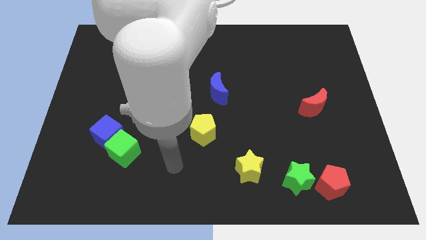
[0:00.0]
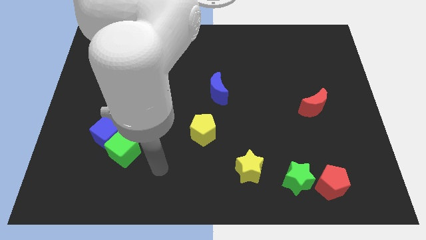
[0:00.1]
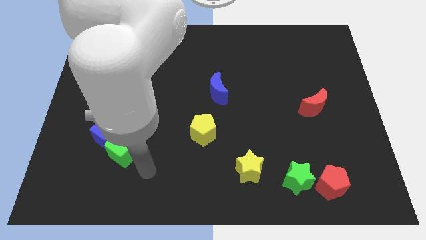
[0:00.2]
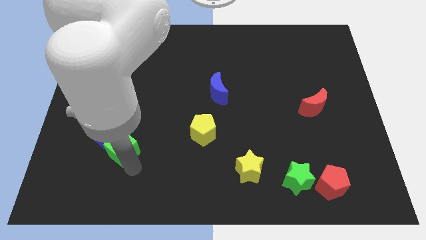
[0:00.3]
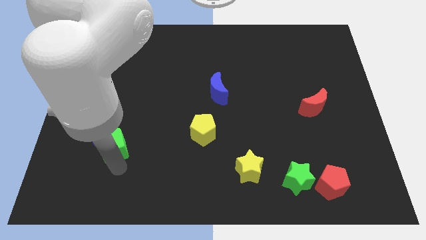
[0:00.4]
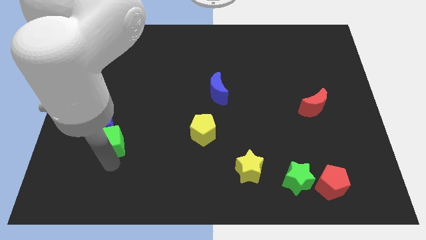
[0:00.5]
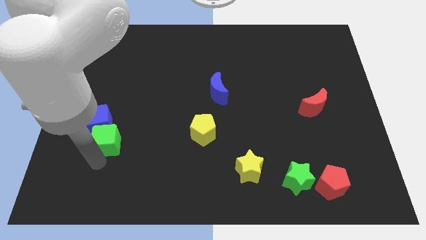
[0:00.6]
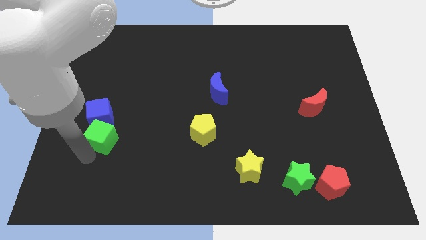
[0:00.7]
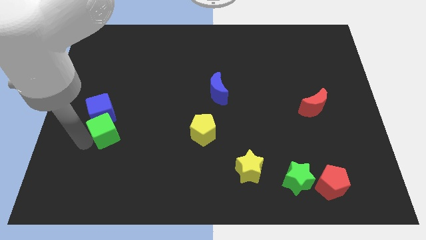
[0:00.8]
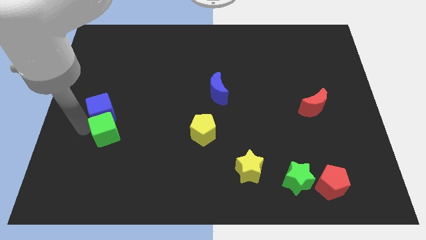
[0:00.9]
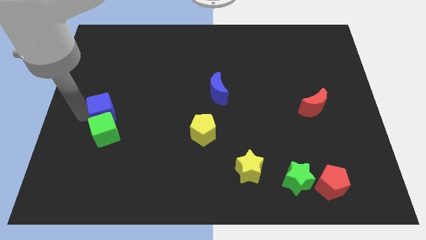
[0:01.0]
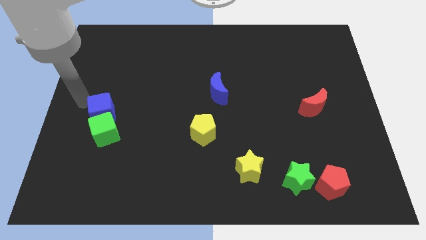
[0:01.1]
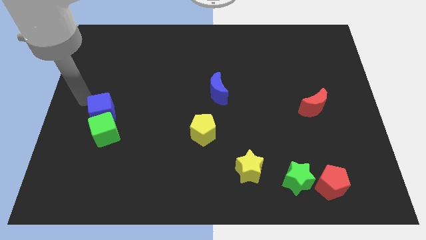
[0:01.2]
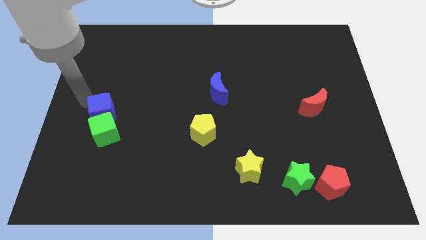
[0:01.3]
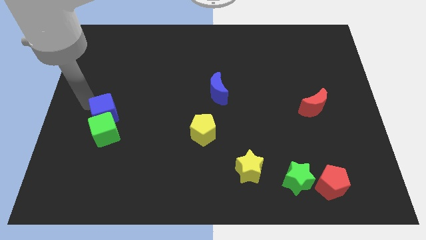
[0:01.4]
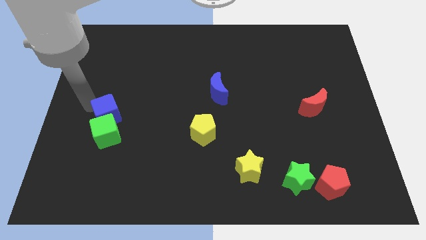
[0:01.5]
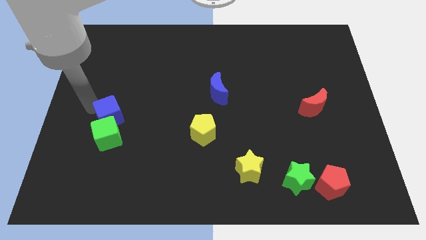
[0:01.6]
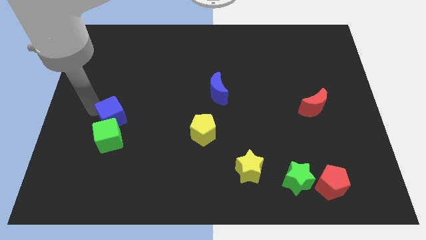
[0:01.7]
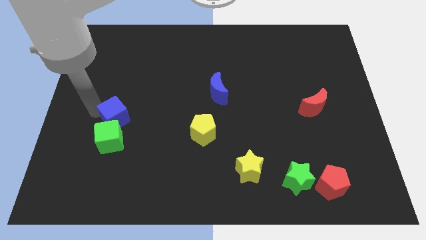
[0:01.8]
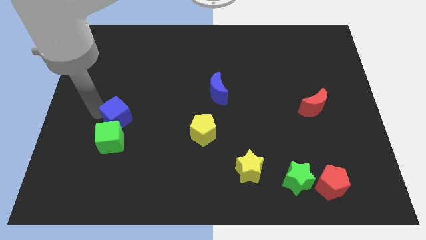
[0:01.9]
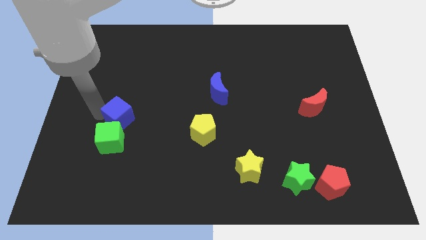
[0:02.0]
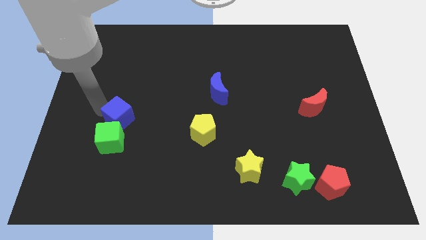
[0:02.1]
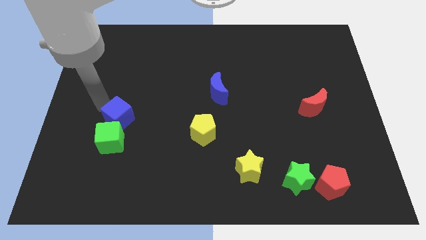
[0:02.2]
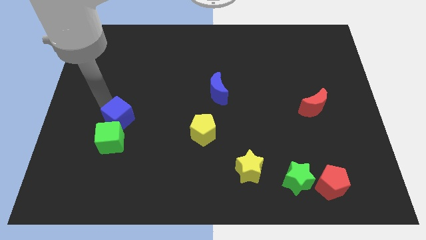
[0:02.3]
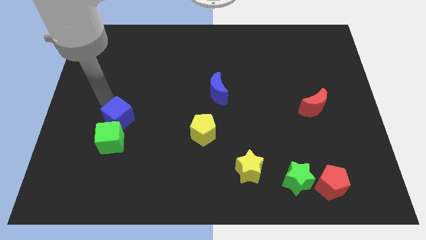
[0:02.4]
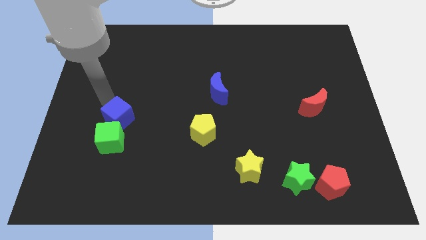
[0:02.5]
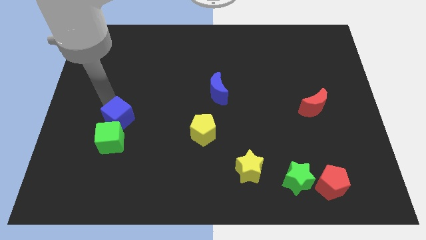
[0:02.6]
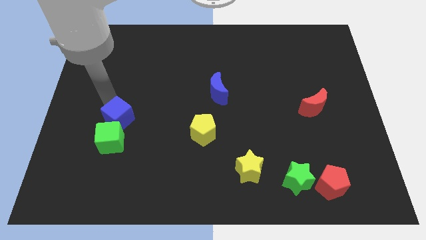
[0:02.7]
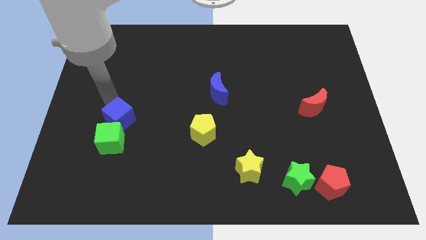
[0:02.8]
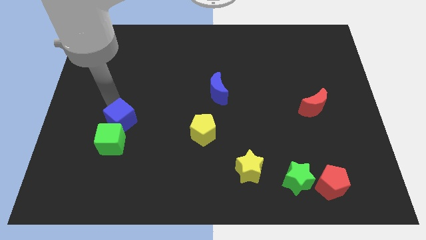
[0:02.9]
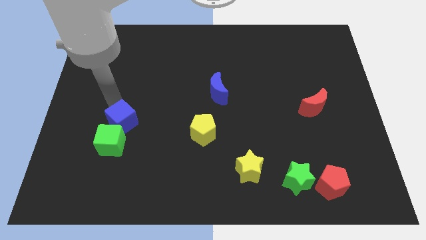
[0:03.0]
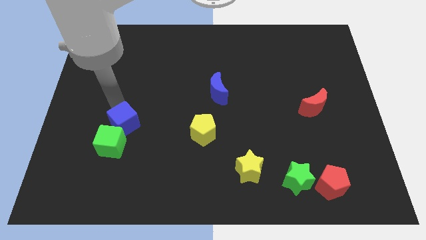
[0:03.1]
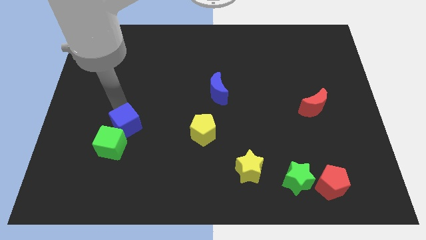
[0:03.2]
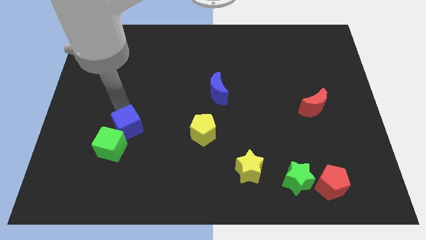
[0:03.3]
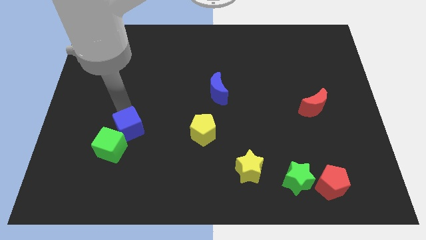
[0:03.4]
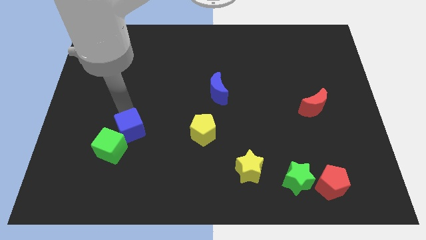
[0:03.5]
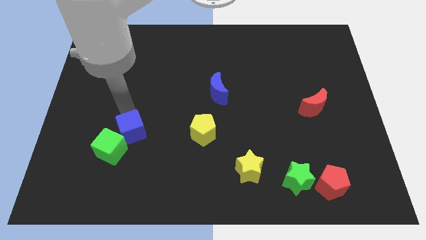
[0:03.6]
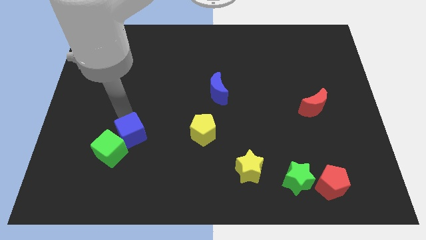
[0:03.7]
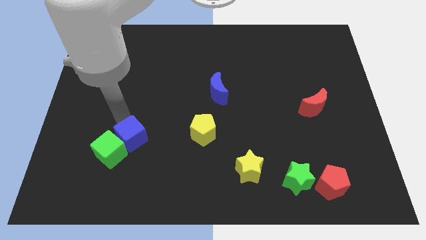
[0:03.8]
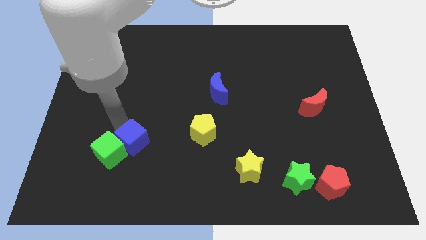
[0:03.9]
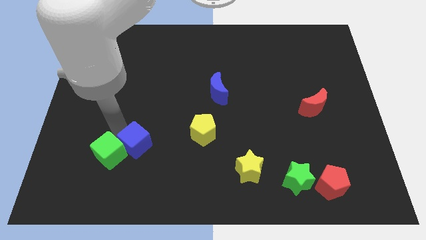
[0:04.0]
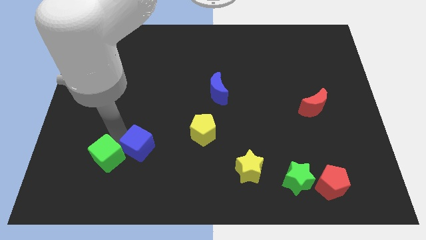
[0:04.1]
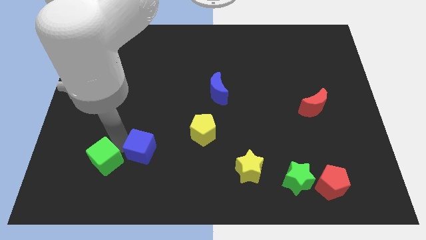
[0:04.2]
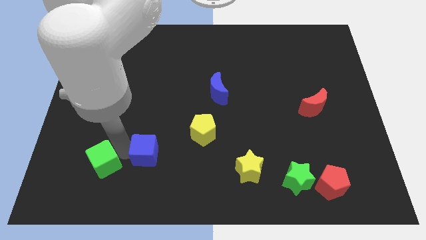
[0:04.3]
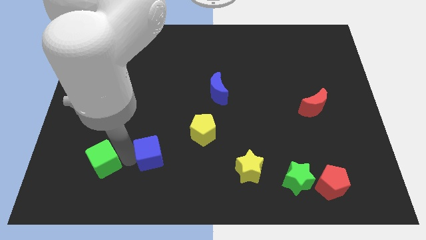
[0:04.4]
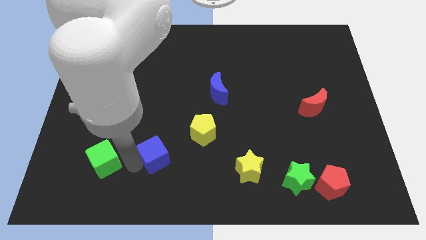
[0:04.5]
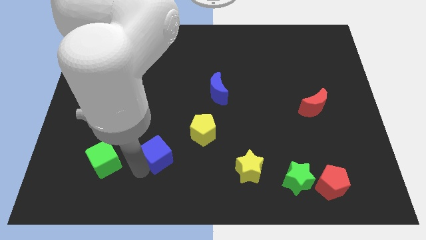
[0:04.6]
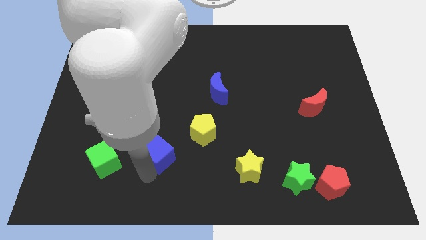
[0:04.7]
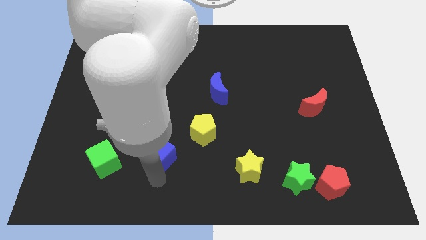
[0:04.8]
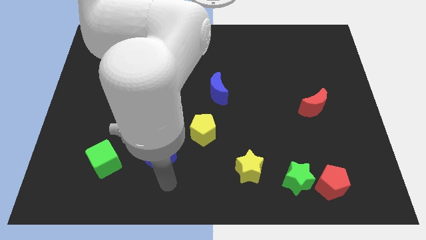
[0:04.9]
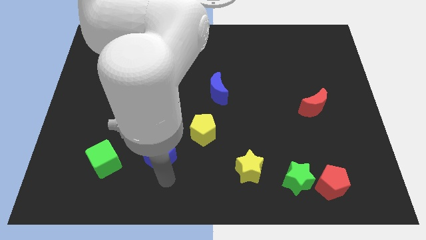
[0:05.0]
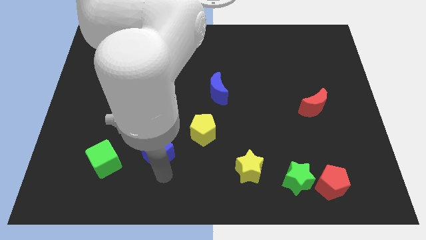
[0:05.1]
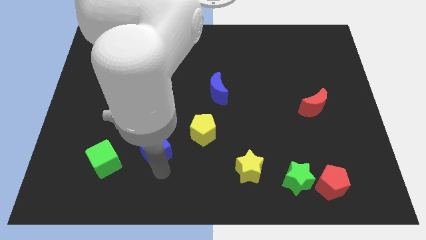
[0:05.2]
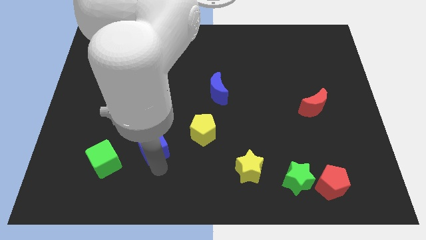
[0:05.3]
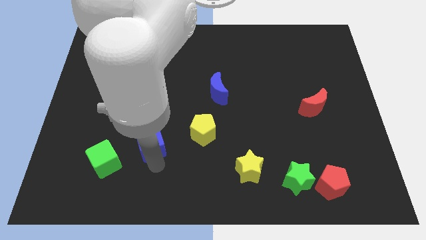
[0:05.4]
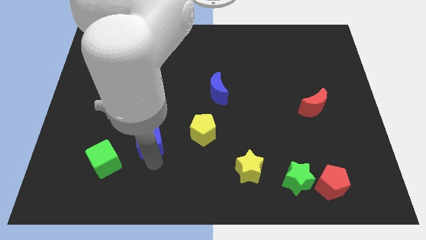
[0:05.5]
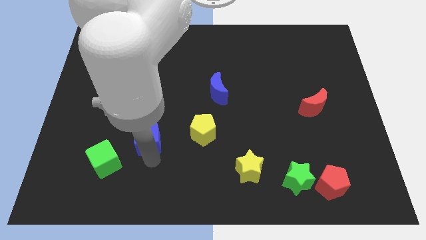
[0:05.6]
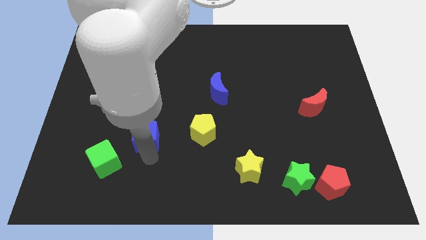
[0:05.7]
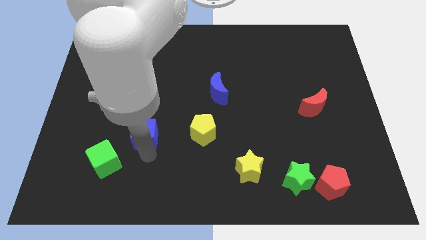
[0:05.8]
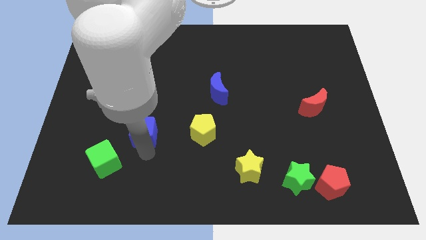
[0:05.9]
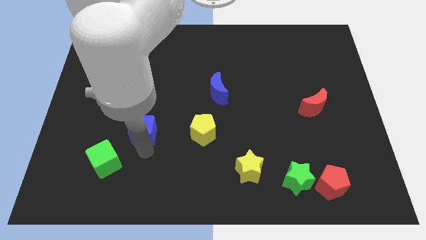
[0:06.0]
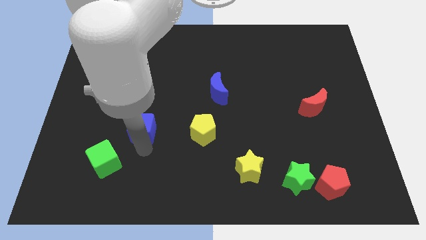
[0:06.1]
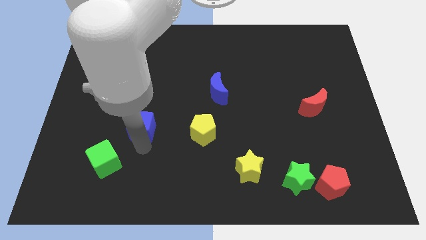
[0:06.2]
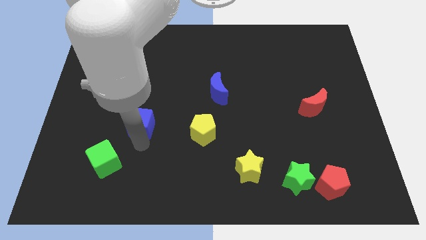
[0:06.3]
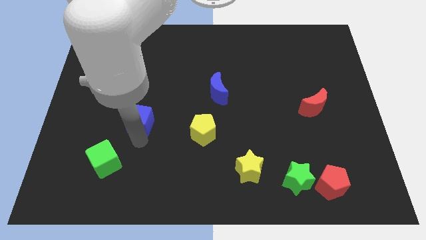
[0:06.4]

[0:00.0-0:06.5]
slightly move the blue cube upwards and then right

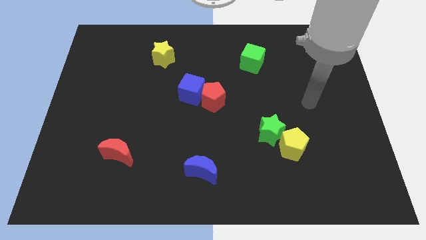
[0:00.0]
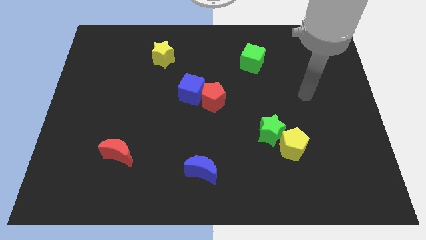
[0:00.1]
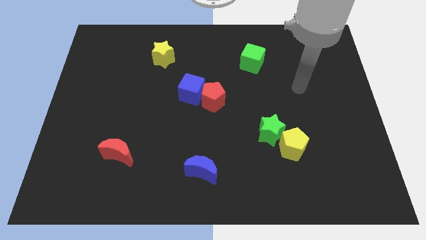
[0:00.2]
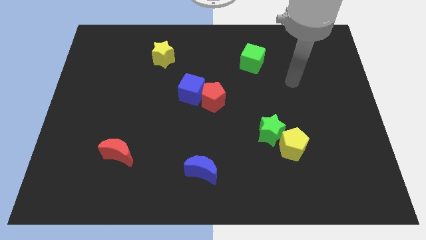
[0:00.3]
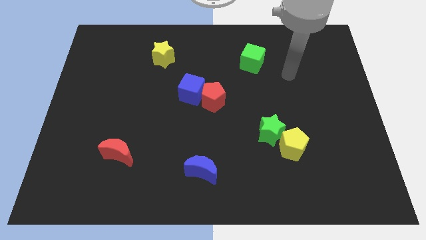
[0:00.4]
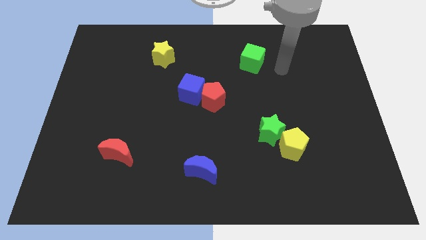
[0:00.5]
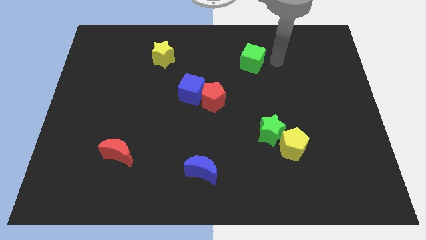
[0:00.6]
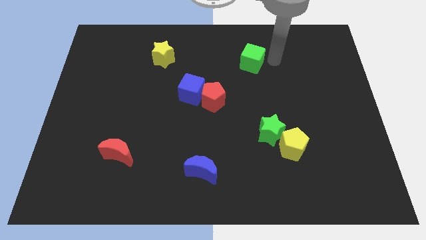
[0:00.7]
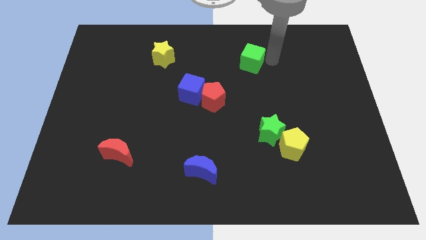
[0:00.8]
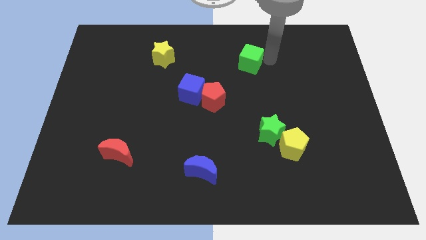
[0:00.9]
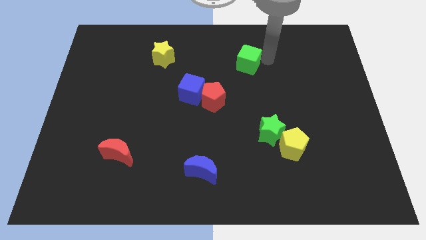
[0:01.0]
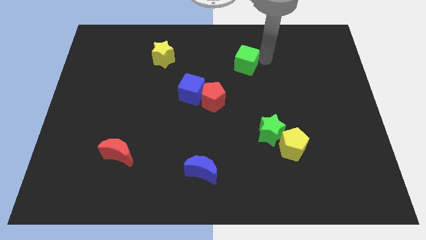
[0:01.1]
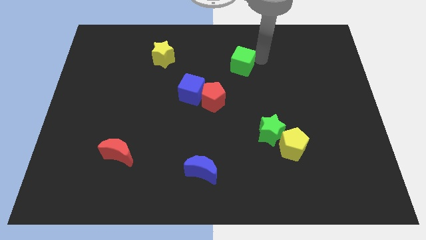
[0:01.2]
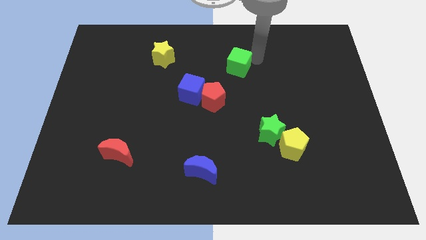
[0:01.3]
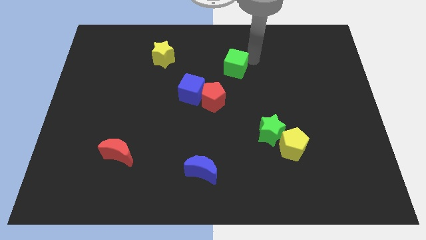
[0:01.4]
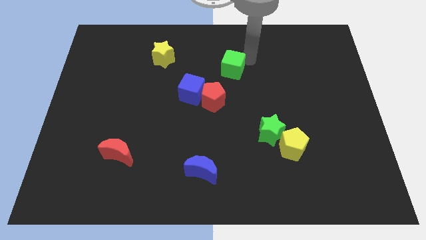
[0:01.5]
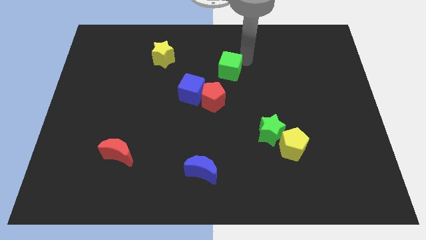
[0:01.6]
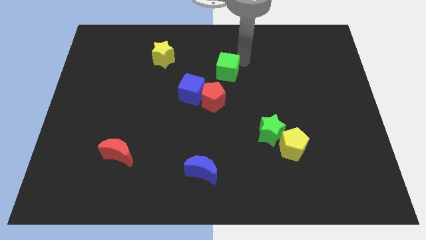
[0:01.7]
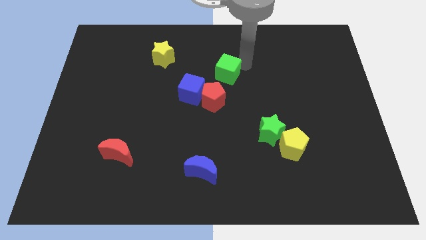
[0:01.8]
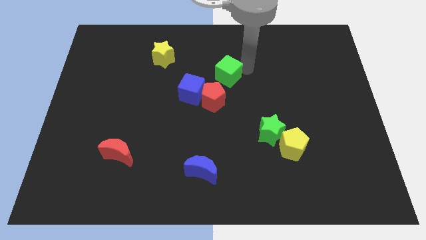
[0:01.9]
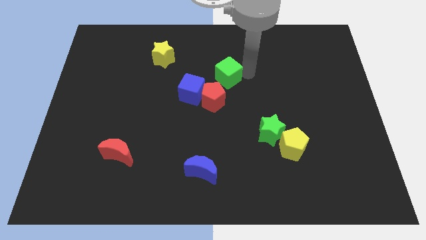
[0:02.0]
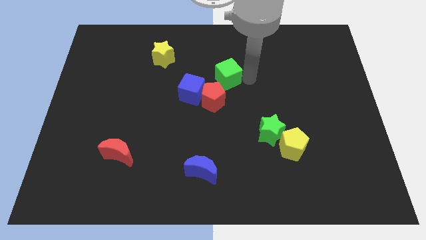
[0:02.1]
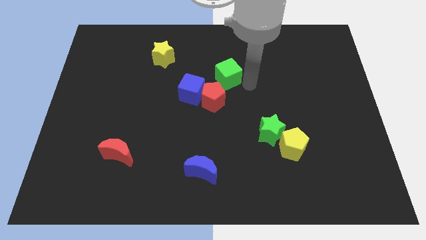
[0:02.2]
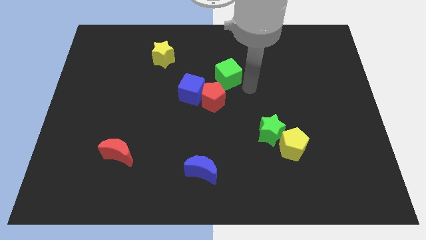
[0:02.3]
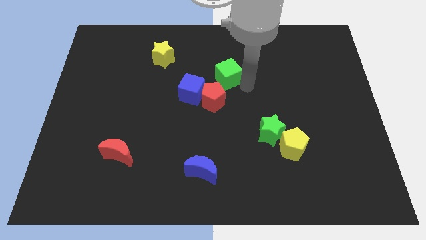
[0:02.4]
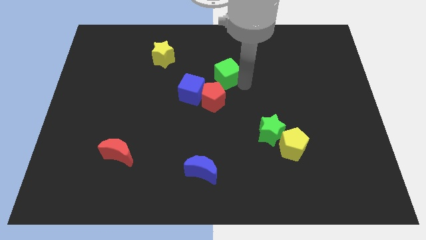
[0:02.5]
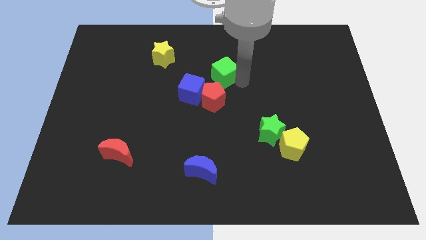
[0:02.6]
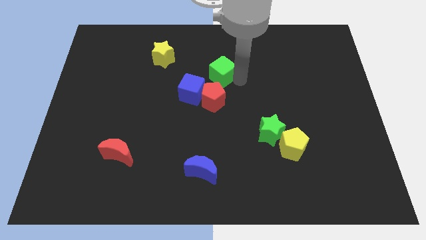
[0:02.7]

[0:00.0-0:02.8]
slightly push the green cube left
